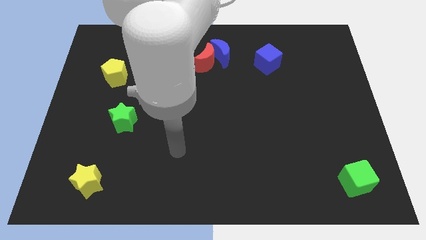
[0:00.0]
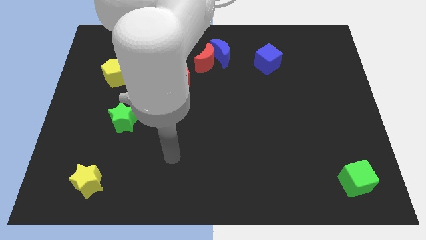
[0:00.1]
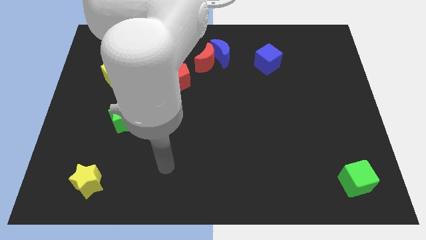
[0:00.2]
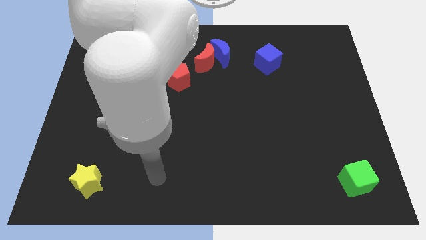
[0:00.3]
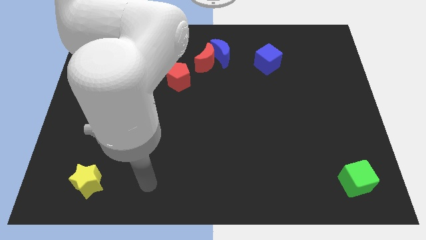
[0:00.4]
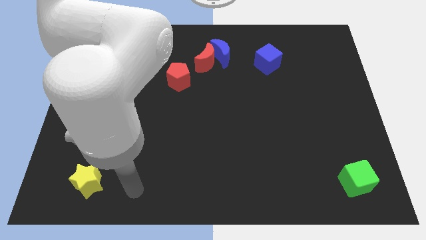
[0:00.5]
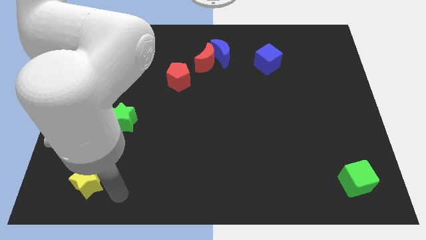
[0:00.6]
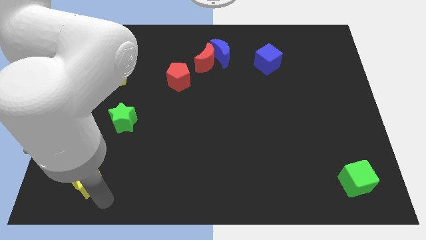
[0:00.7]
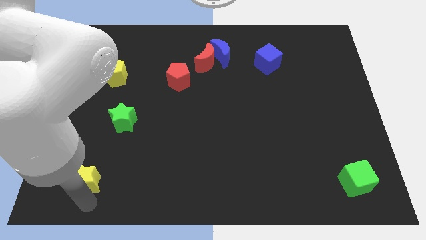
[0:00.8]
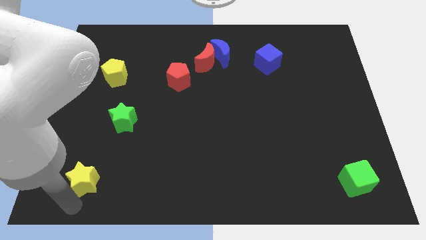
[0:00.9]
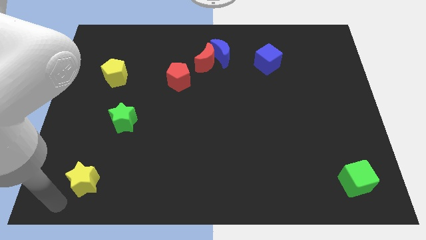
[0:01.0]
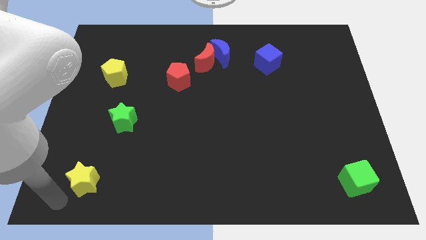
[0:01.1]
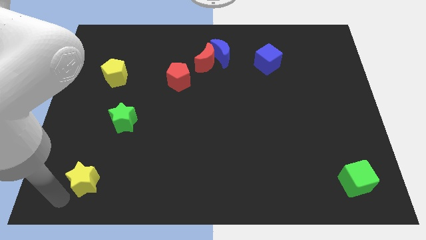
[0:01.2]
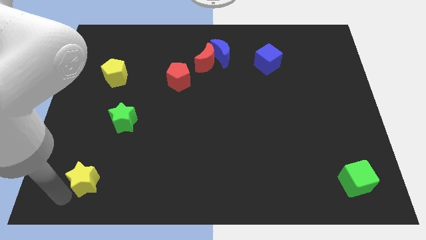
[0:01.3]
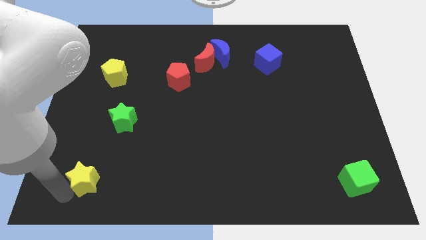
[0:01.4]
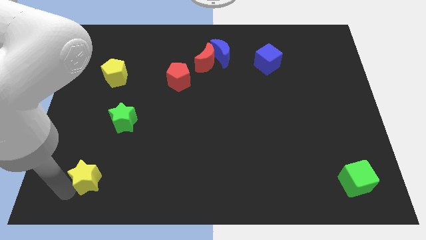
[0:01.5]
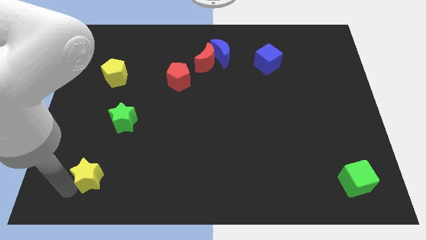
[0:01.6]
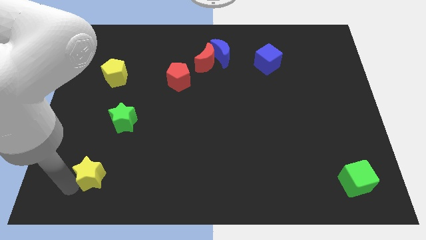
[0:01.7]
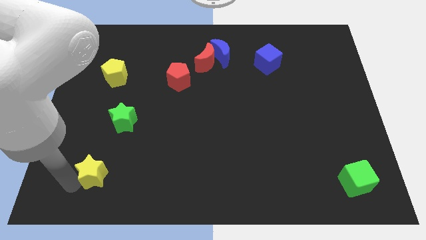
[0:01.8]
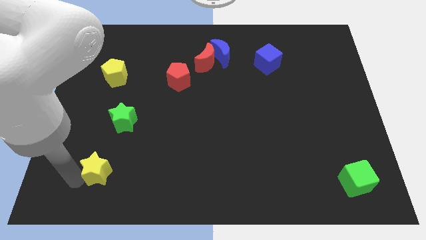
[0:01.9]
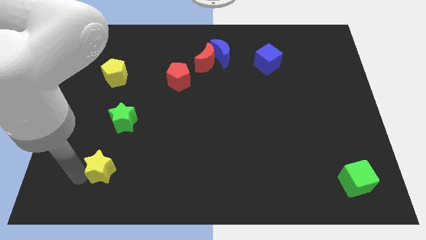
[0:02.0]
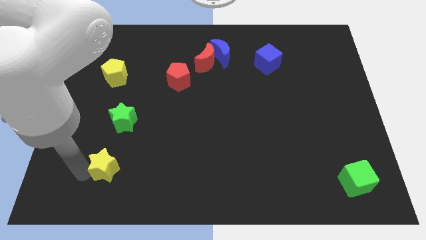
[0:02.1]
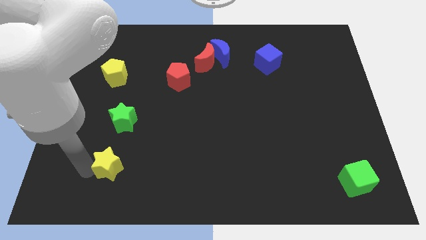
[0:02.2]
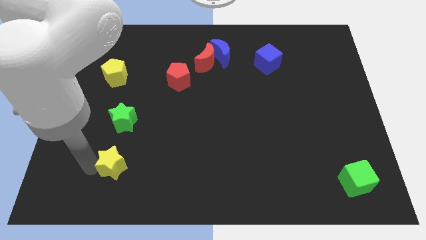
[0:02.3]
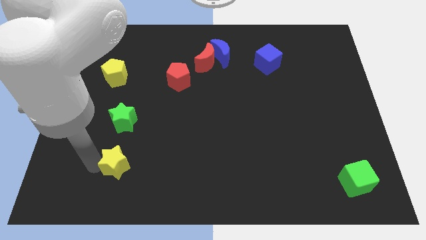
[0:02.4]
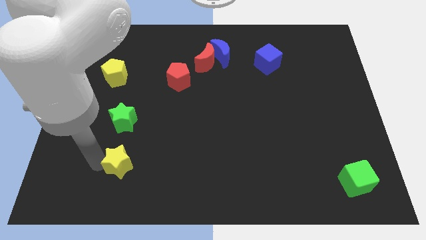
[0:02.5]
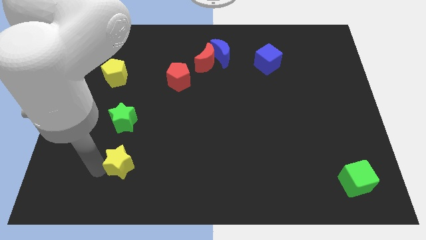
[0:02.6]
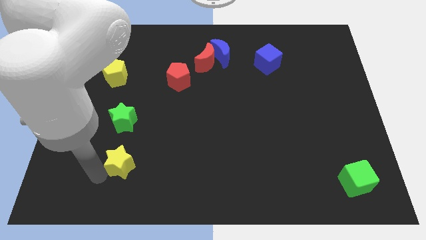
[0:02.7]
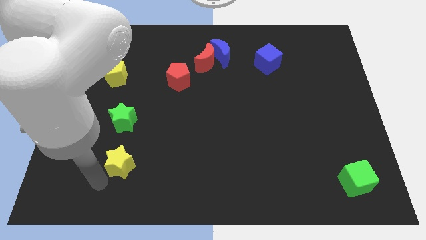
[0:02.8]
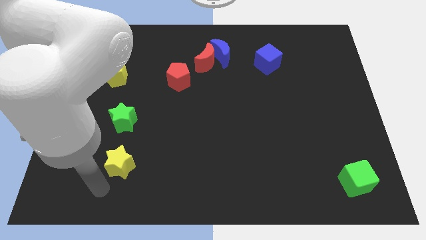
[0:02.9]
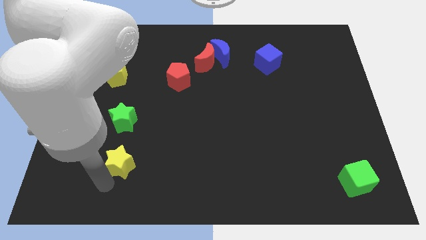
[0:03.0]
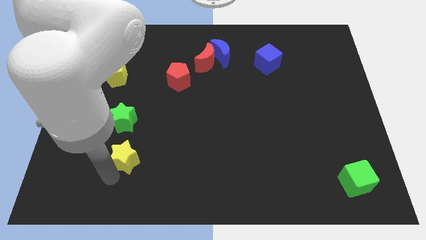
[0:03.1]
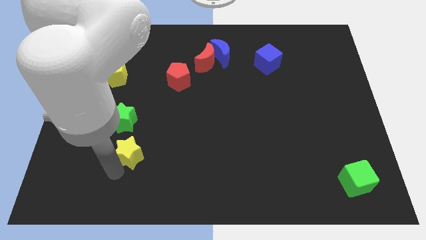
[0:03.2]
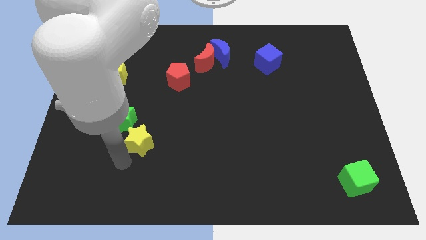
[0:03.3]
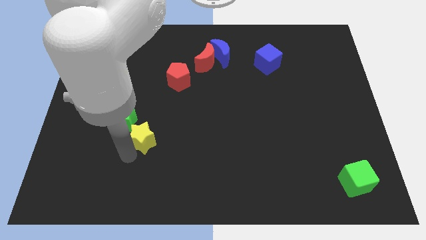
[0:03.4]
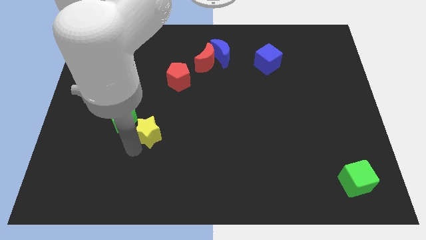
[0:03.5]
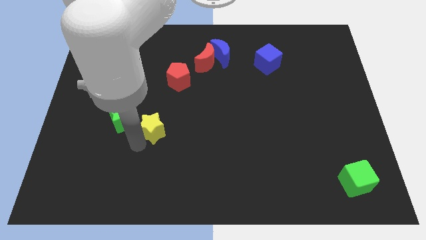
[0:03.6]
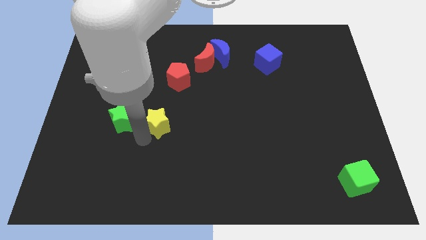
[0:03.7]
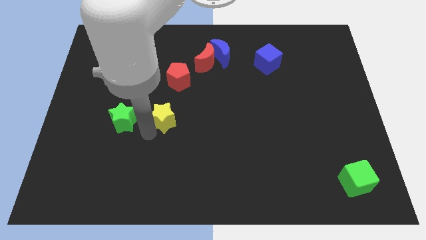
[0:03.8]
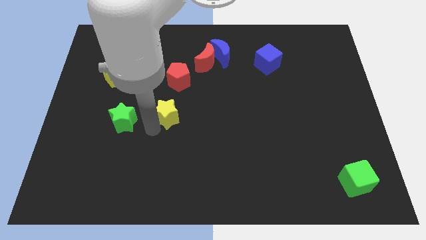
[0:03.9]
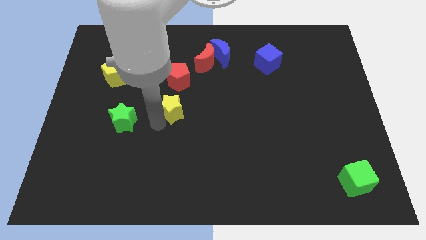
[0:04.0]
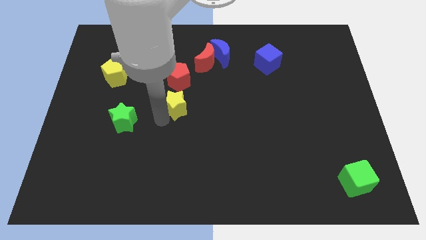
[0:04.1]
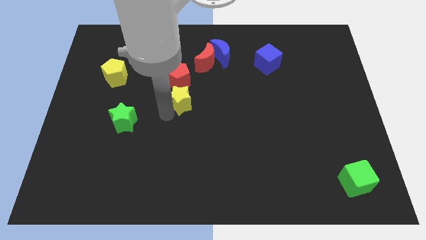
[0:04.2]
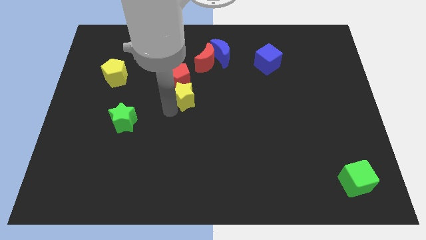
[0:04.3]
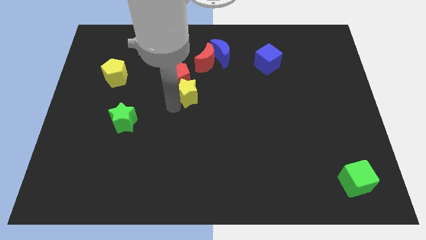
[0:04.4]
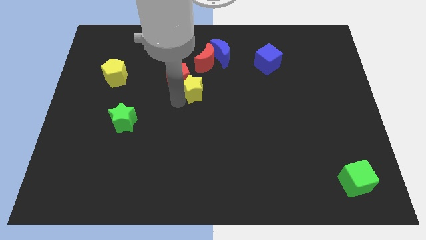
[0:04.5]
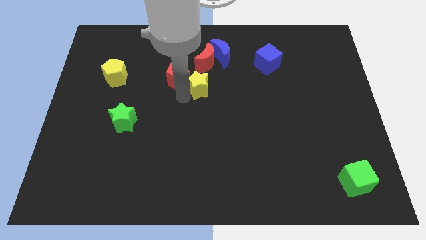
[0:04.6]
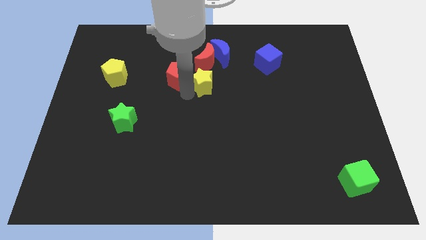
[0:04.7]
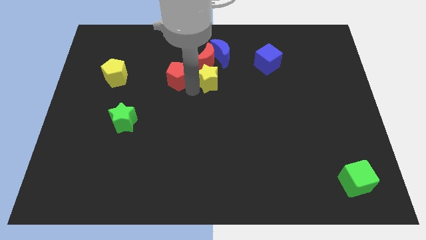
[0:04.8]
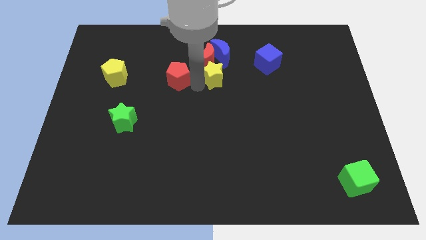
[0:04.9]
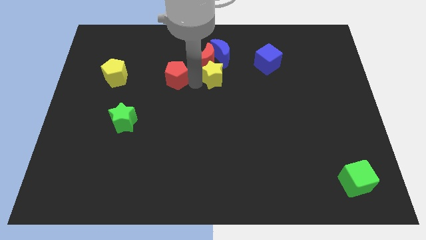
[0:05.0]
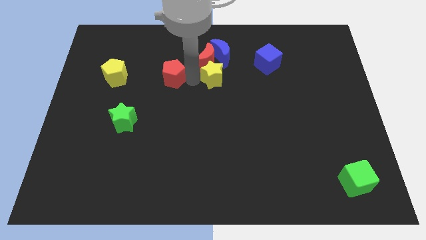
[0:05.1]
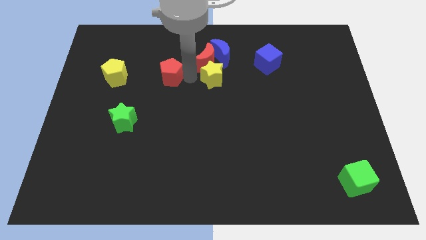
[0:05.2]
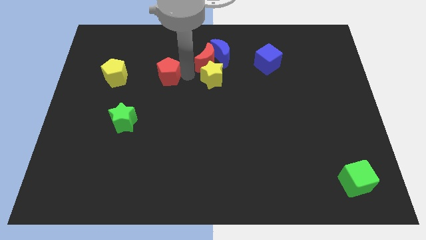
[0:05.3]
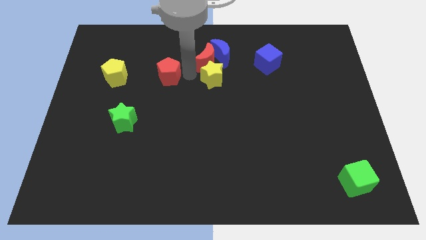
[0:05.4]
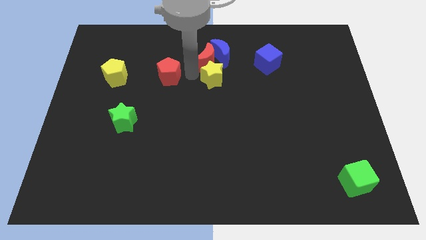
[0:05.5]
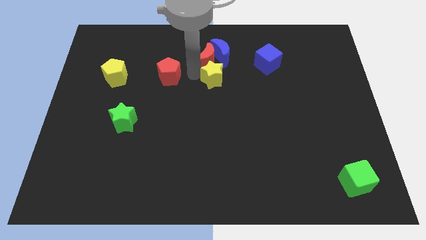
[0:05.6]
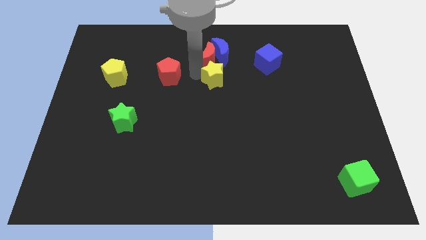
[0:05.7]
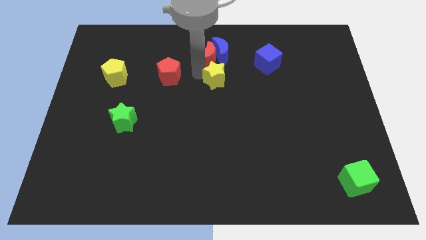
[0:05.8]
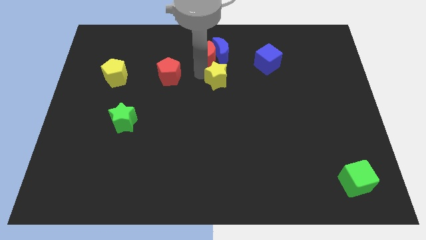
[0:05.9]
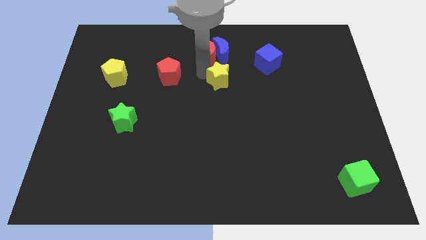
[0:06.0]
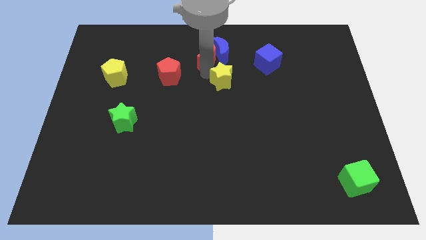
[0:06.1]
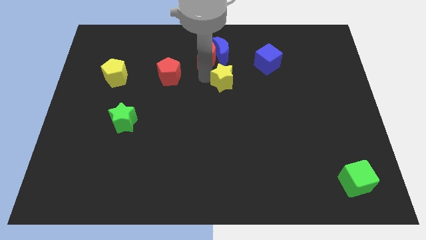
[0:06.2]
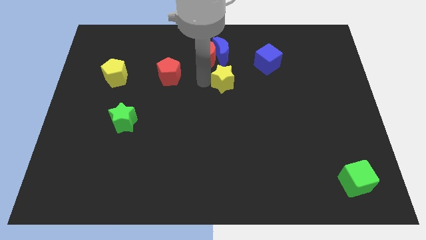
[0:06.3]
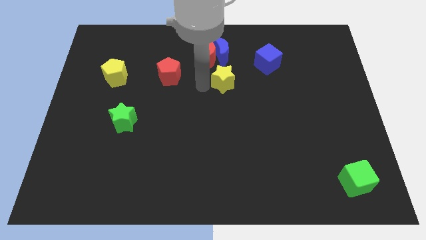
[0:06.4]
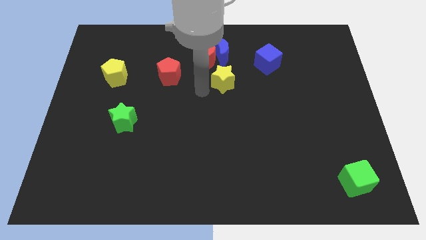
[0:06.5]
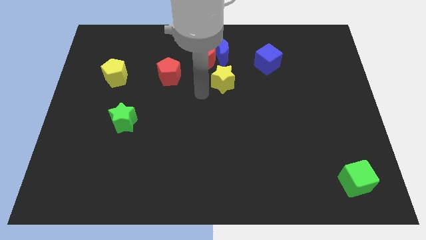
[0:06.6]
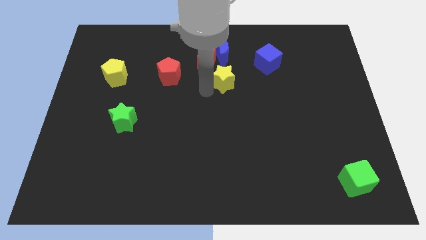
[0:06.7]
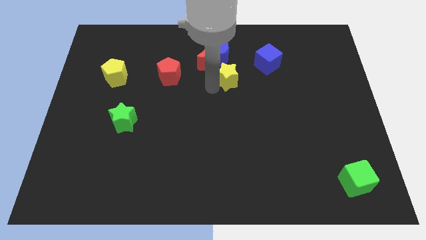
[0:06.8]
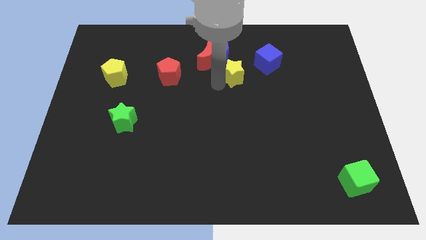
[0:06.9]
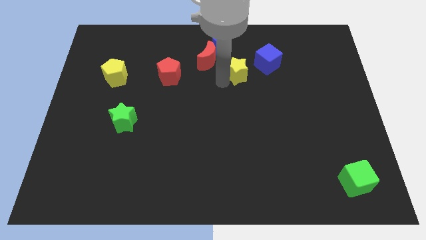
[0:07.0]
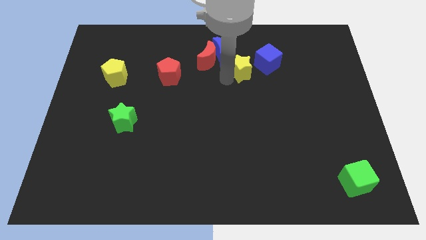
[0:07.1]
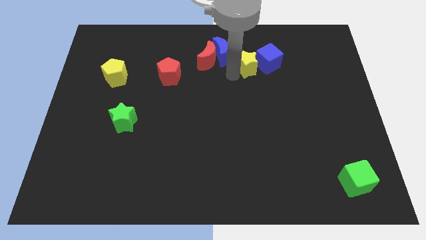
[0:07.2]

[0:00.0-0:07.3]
push the yellow star to the blue cube

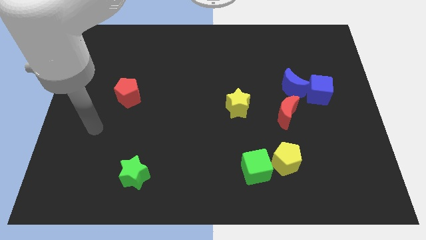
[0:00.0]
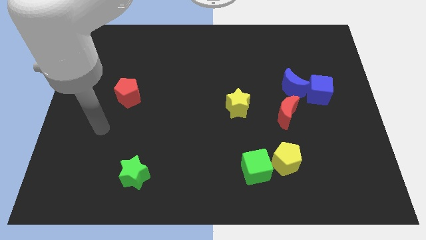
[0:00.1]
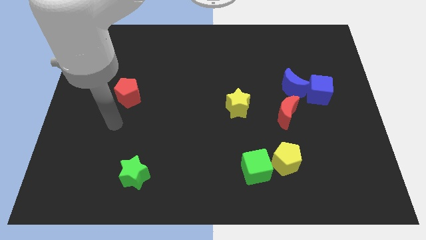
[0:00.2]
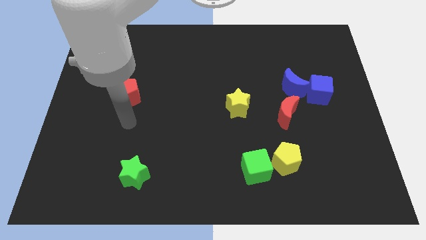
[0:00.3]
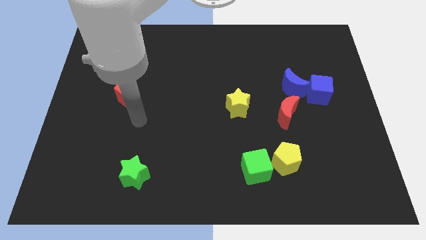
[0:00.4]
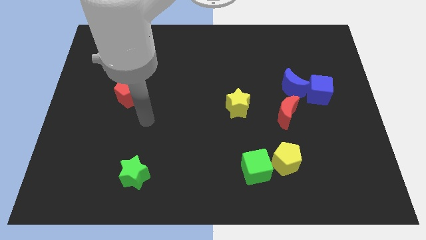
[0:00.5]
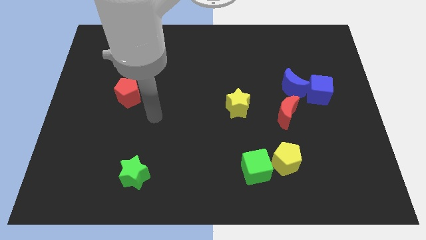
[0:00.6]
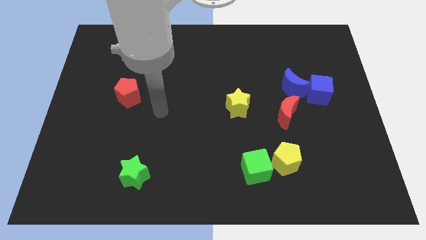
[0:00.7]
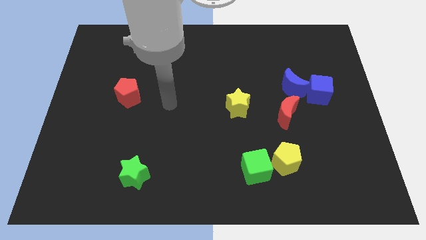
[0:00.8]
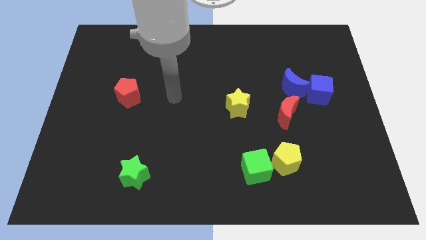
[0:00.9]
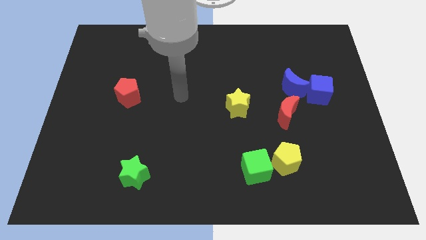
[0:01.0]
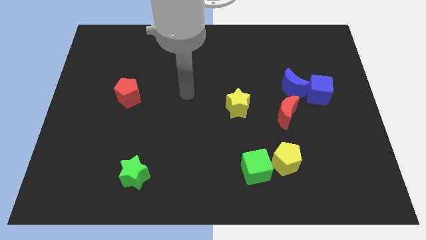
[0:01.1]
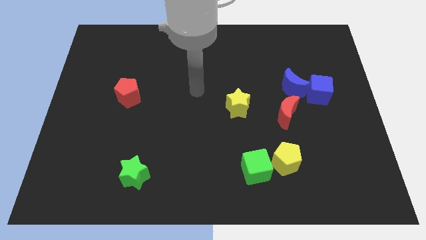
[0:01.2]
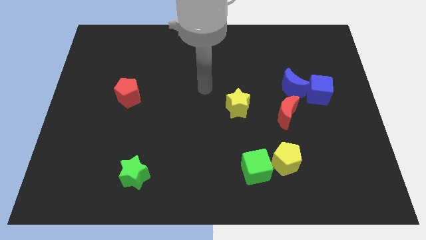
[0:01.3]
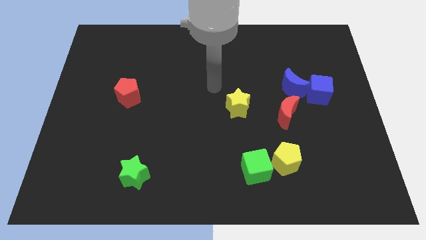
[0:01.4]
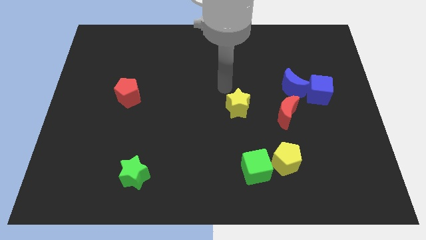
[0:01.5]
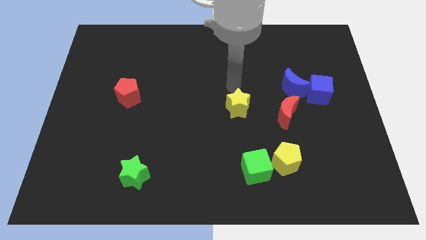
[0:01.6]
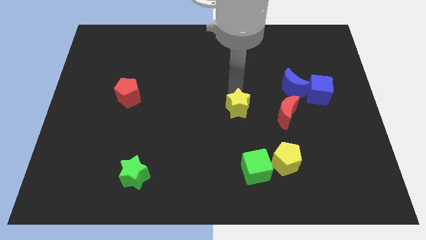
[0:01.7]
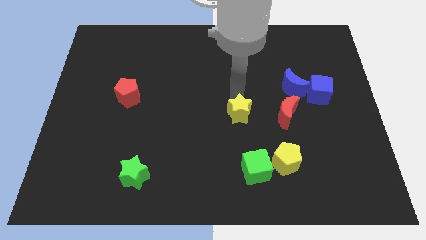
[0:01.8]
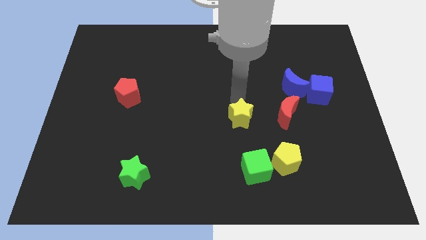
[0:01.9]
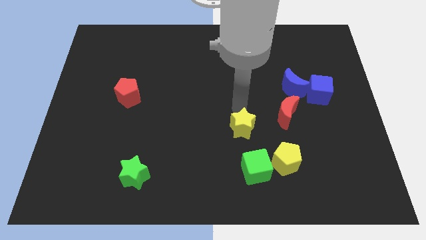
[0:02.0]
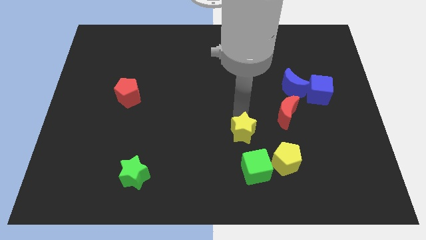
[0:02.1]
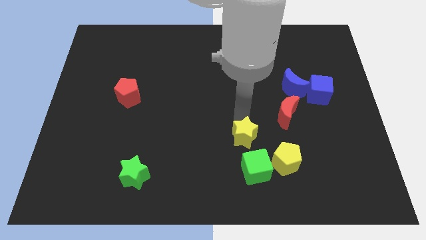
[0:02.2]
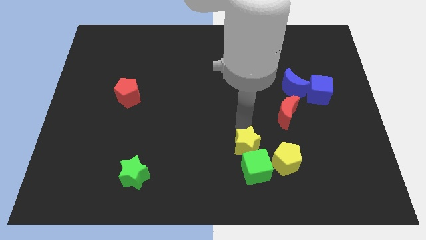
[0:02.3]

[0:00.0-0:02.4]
push the yellow star close to the green cube
